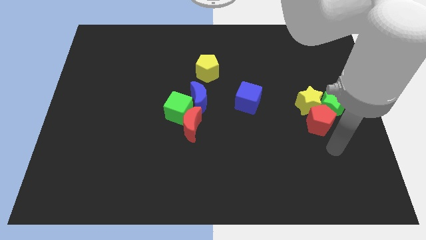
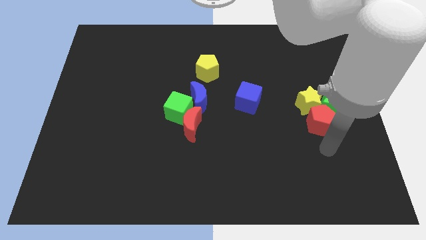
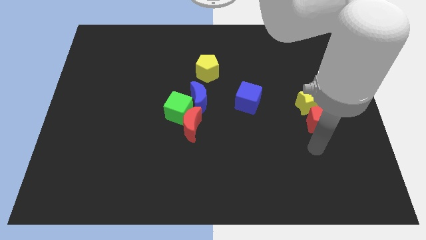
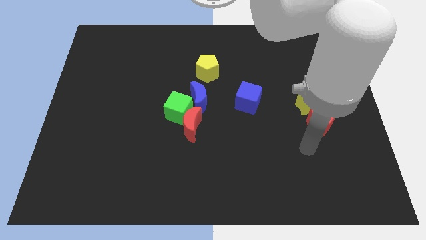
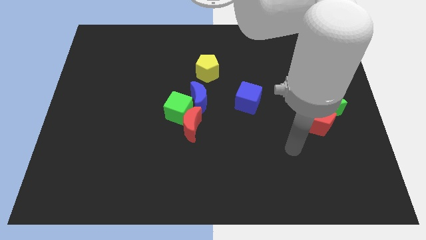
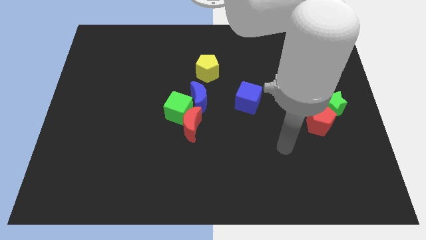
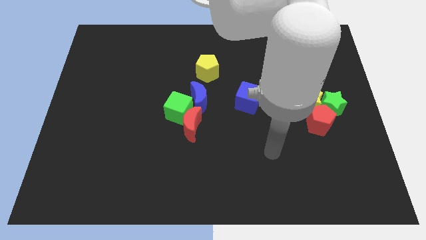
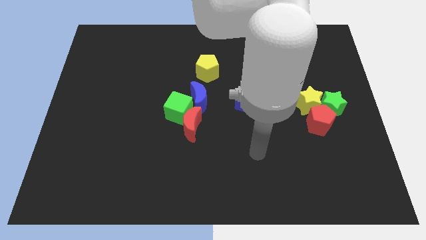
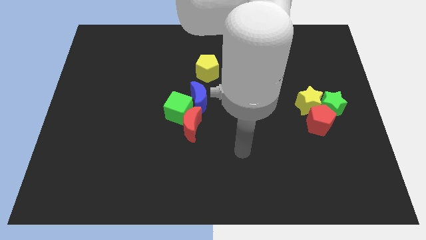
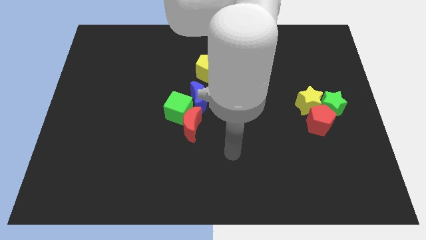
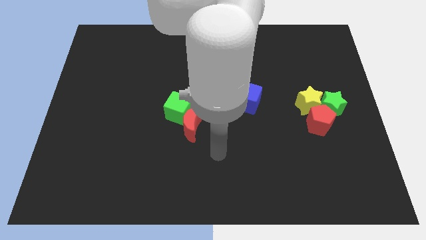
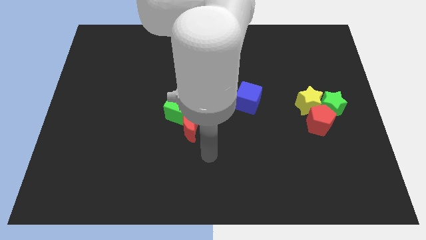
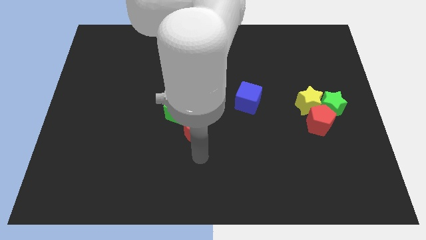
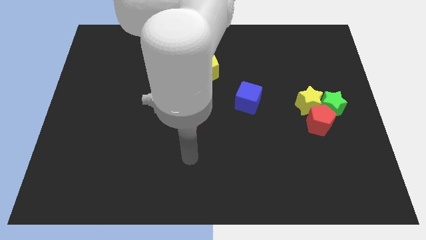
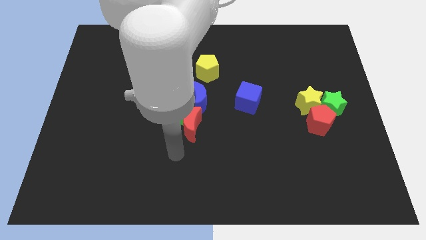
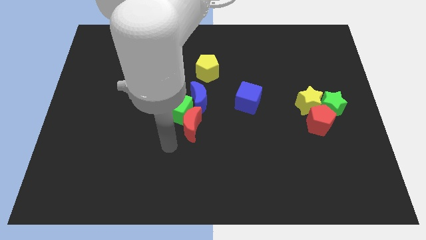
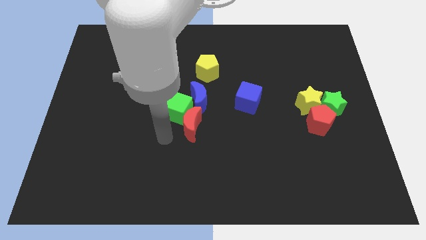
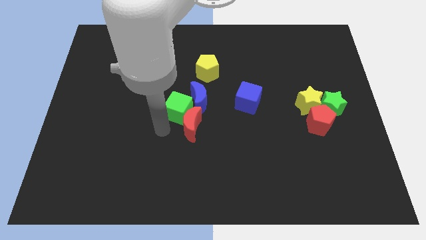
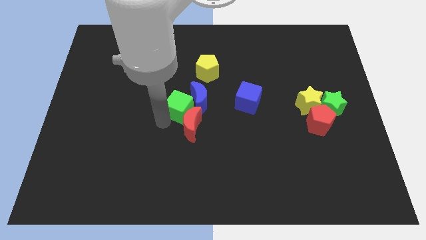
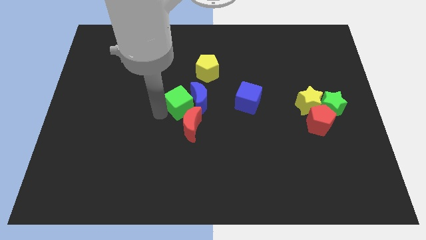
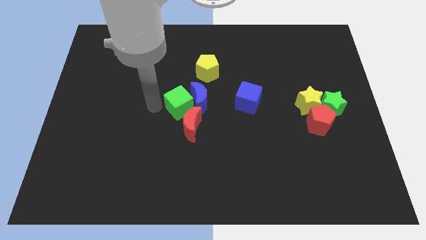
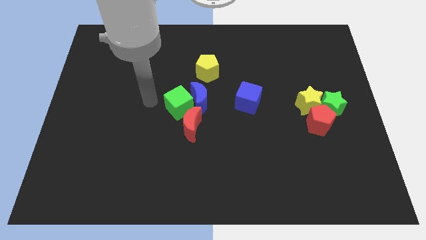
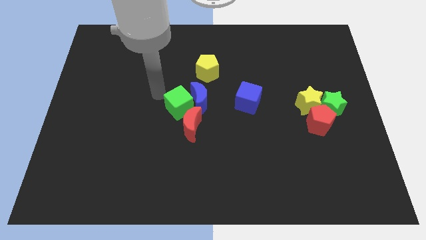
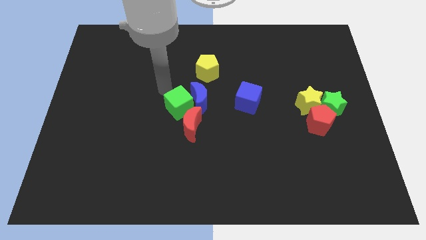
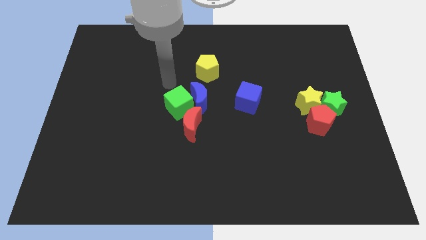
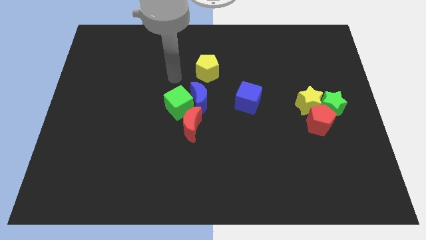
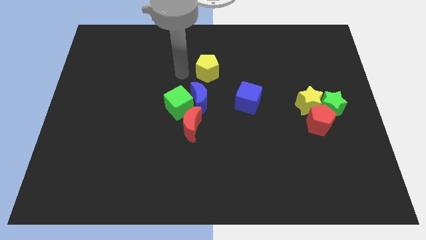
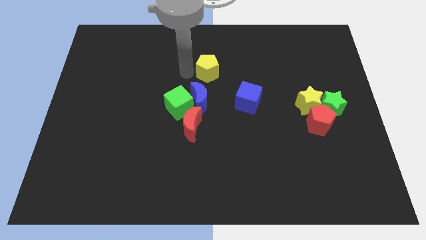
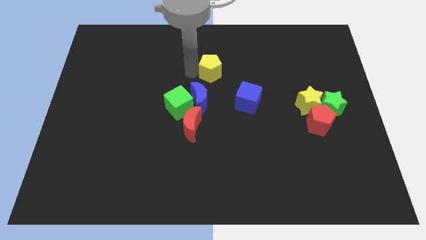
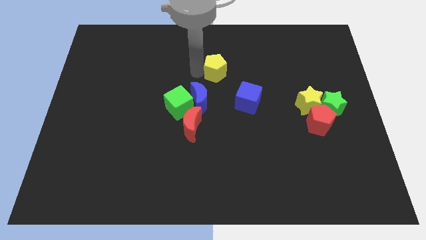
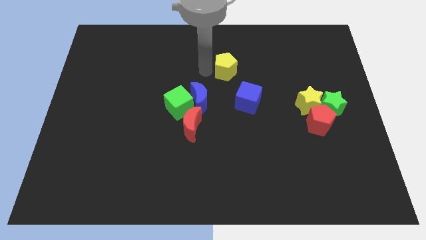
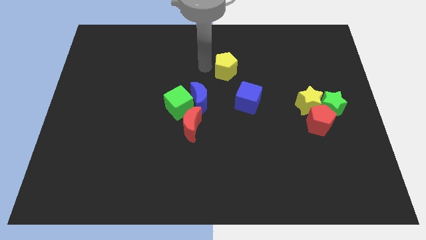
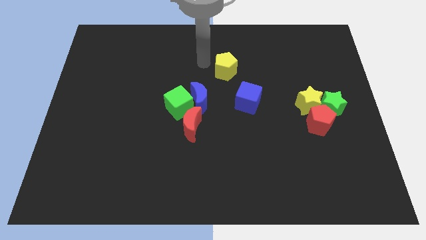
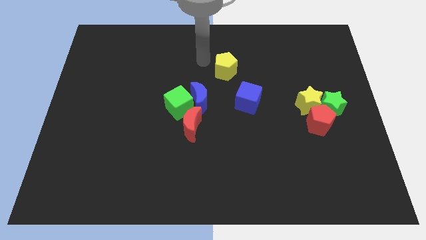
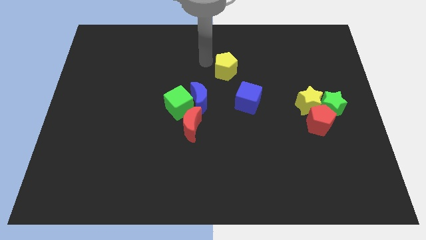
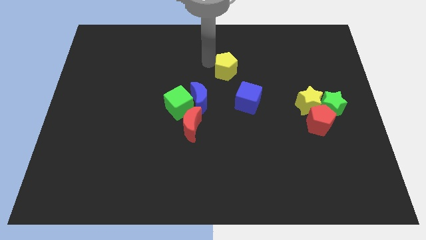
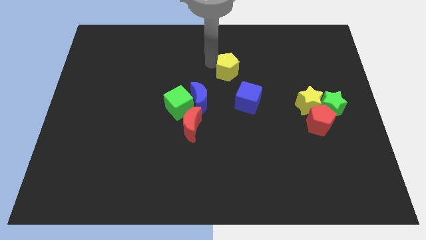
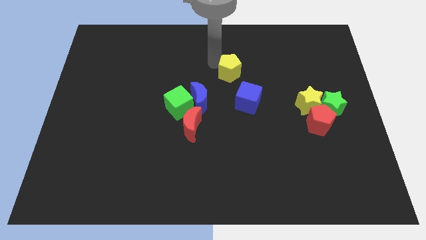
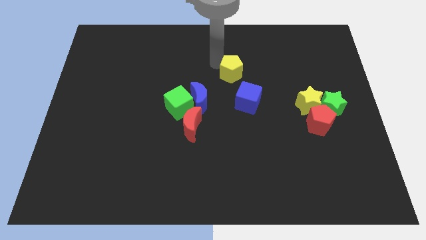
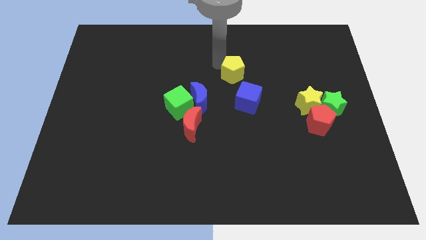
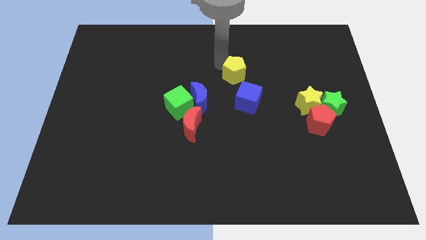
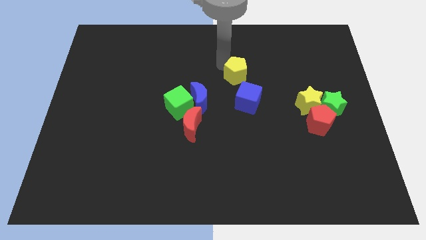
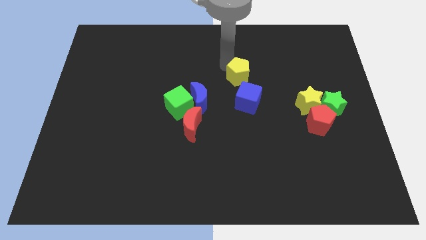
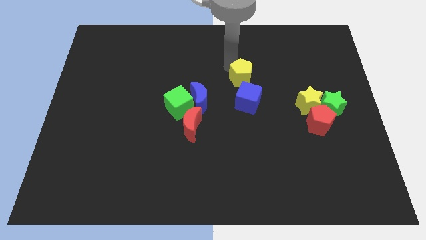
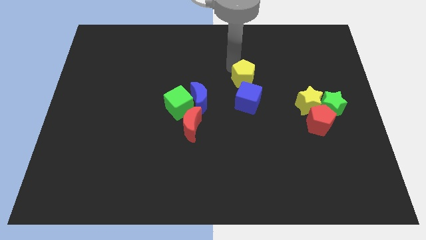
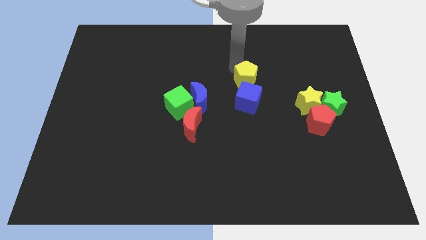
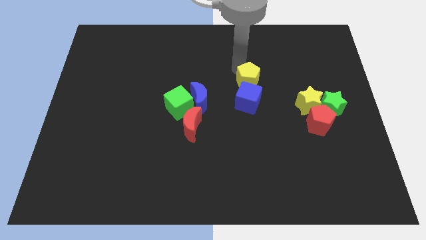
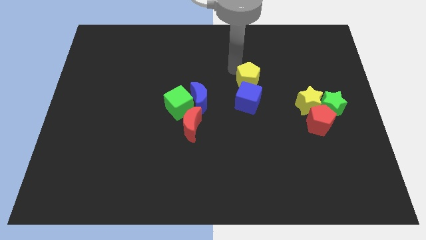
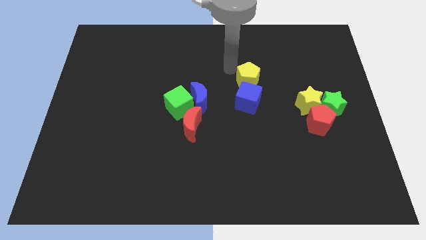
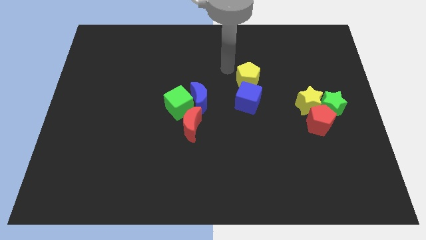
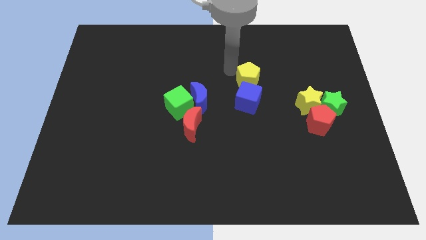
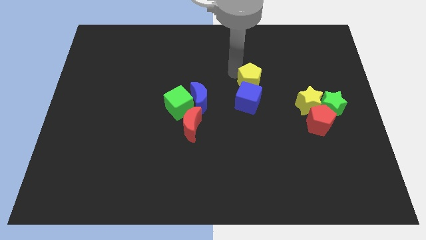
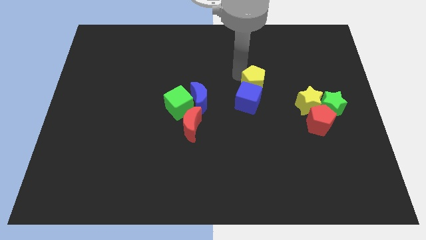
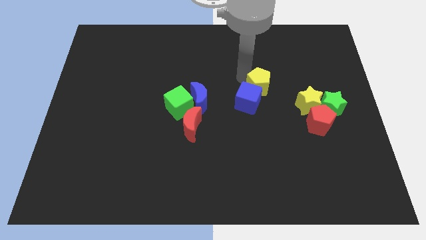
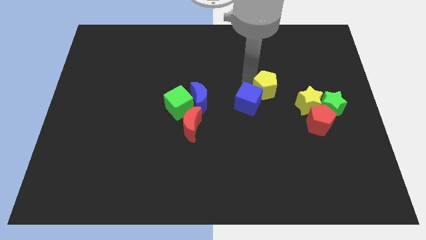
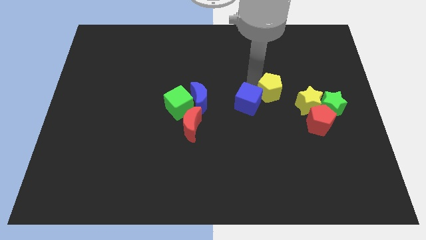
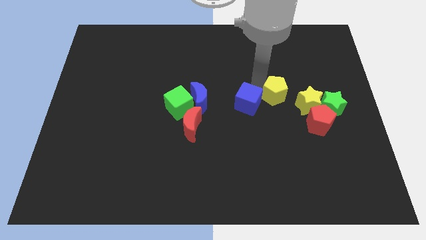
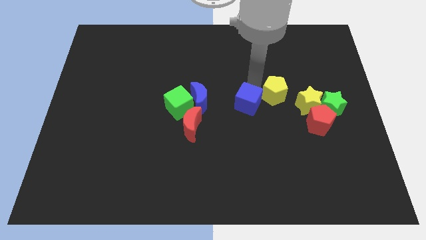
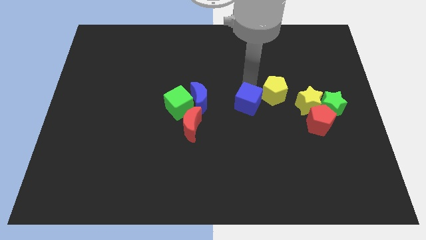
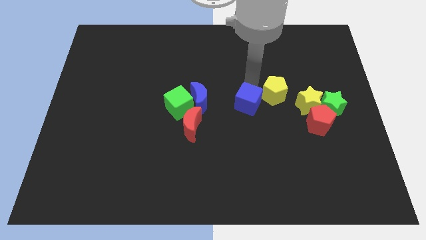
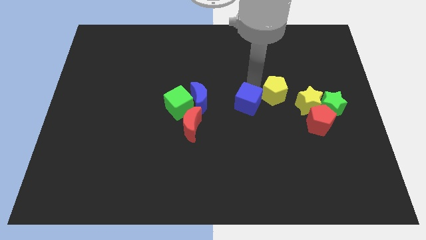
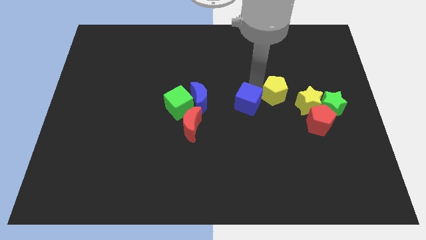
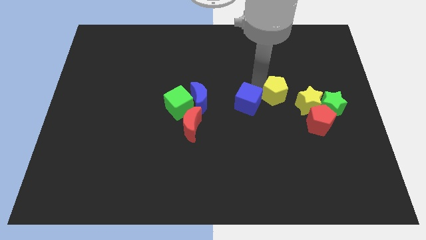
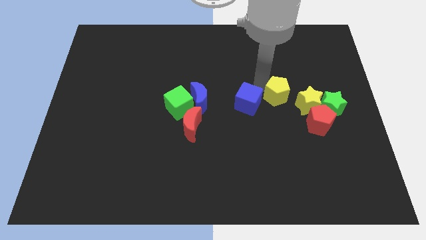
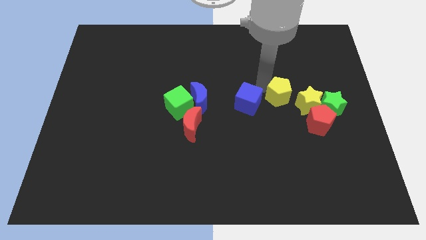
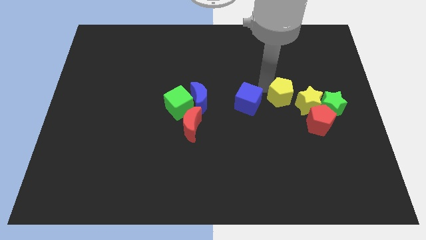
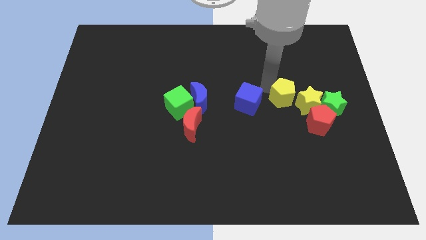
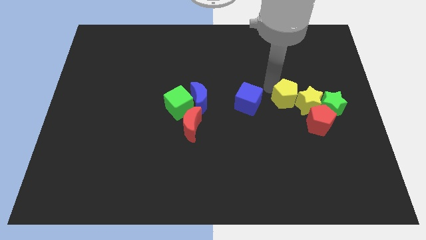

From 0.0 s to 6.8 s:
put the yellow pentagon close to the yellow star

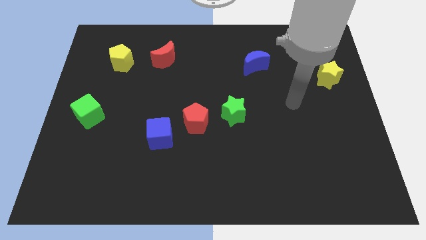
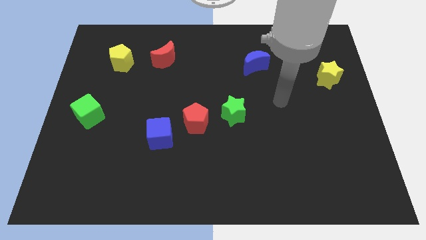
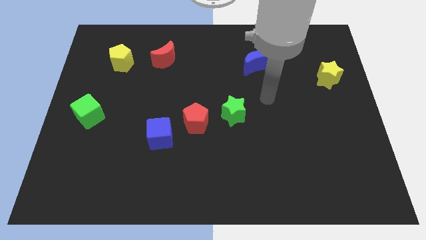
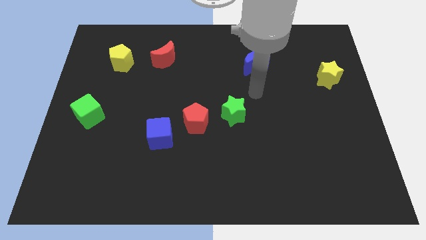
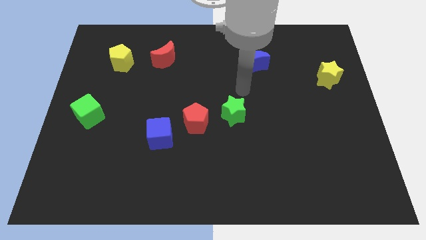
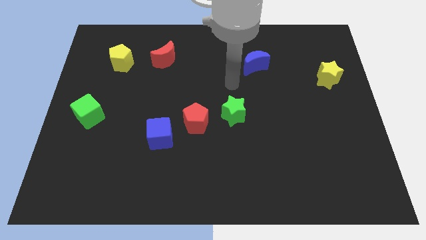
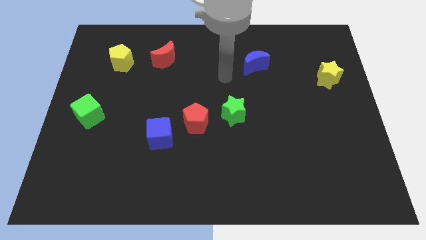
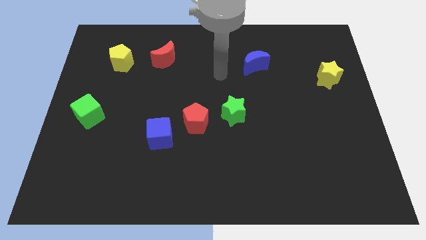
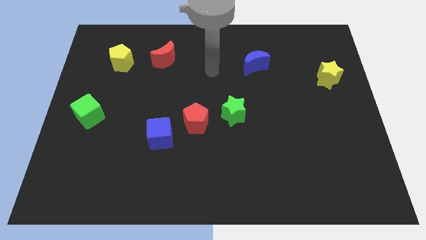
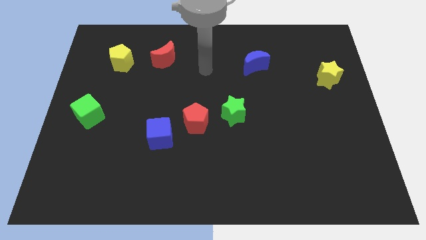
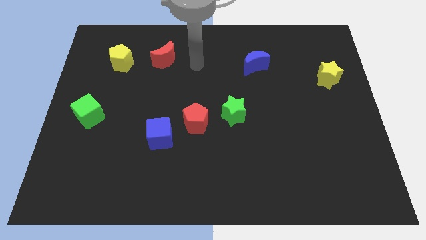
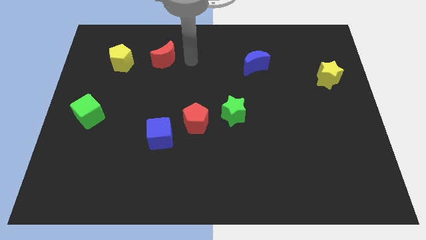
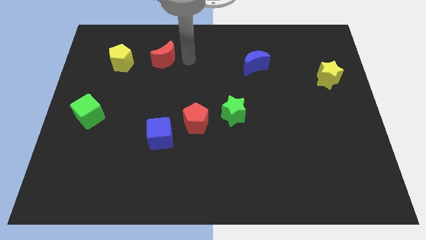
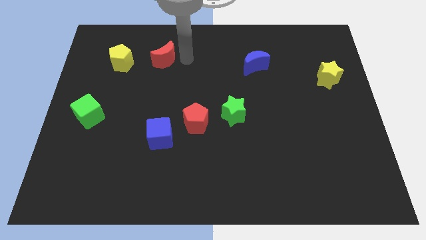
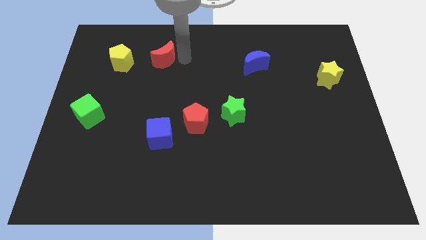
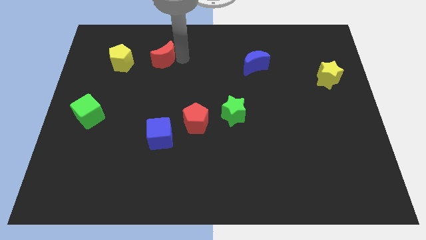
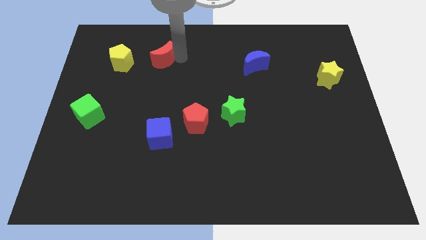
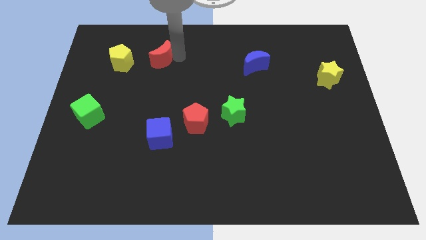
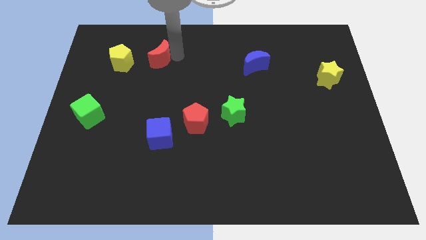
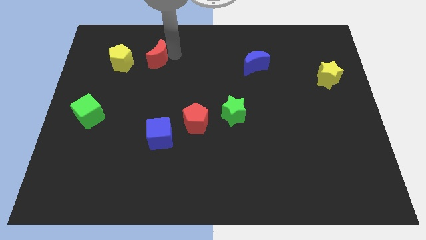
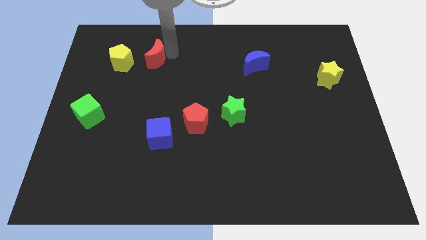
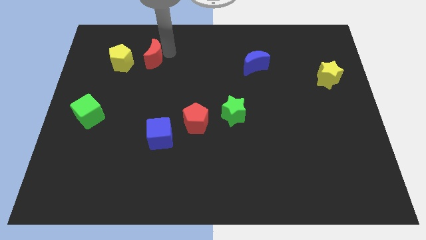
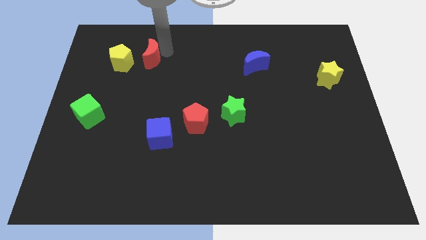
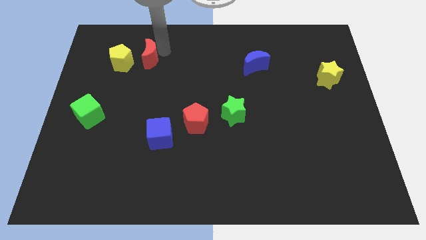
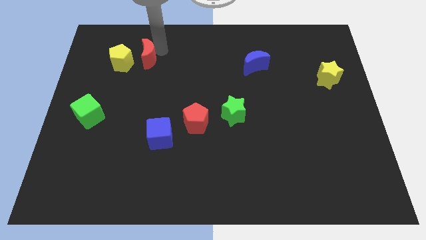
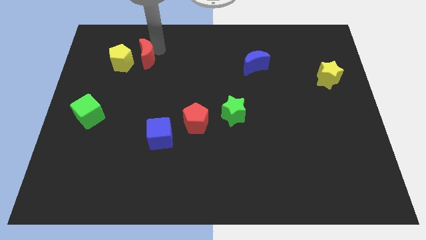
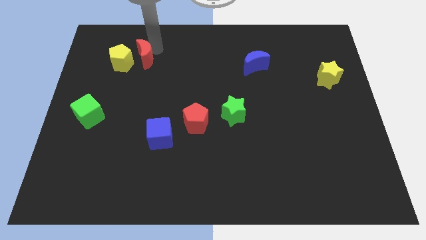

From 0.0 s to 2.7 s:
move the red moon to the yellow pentagon
